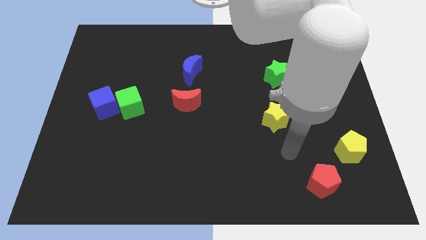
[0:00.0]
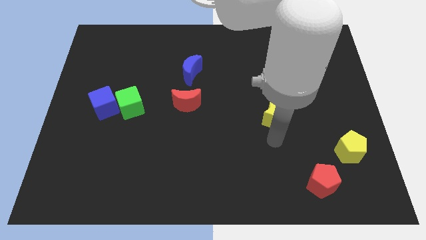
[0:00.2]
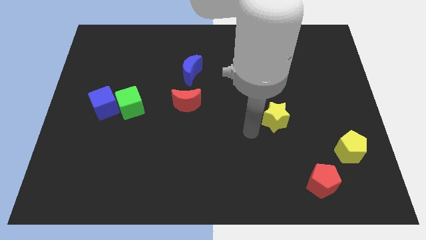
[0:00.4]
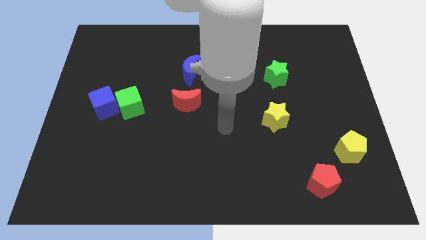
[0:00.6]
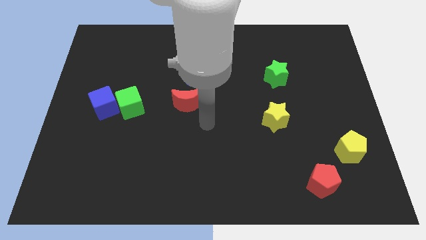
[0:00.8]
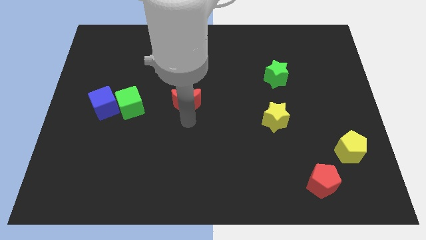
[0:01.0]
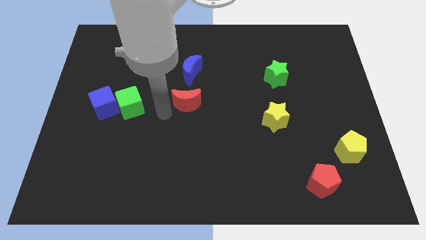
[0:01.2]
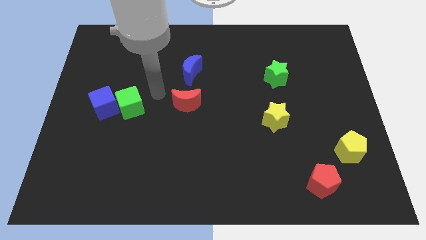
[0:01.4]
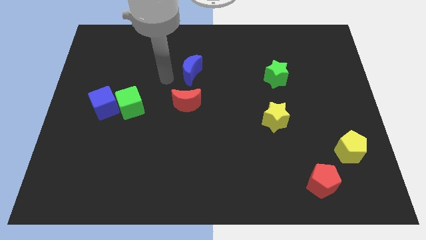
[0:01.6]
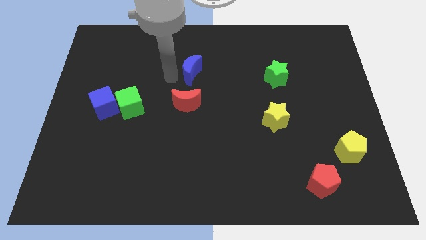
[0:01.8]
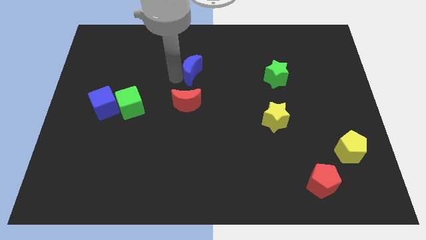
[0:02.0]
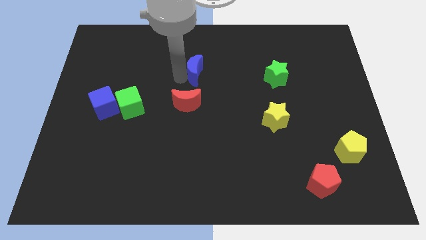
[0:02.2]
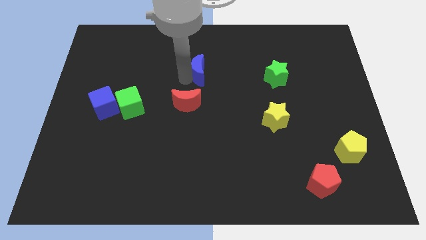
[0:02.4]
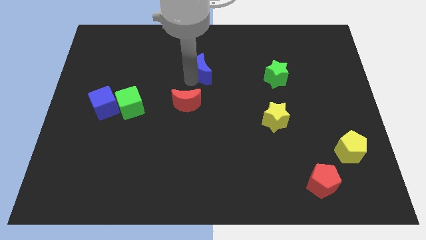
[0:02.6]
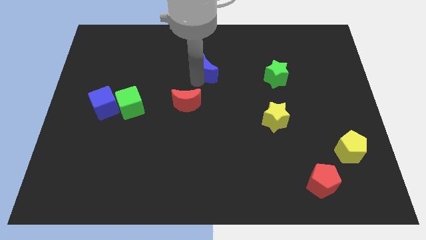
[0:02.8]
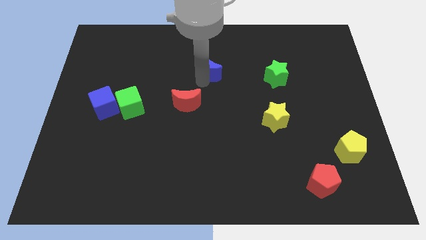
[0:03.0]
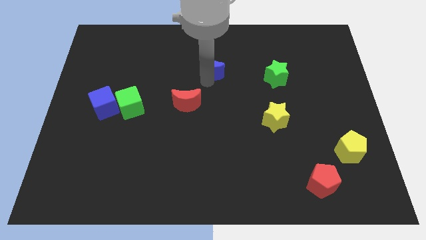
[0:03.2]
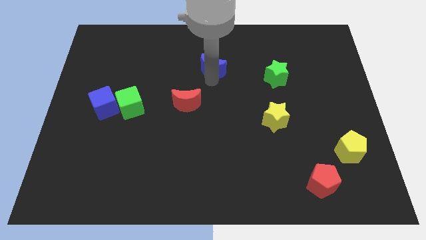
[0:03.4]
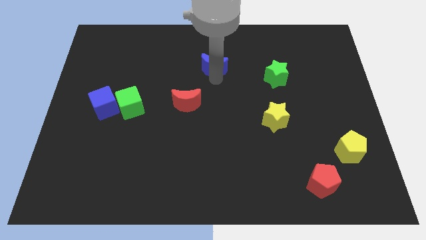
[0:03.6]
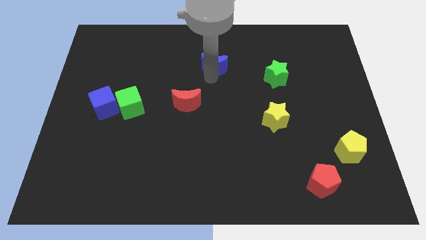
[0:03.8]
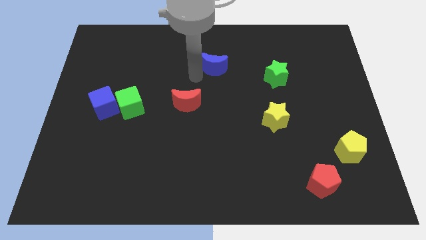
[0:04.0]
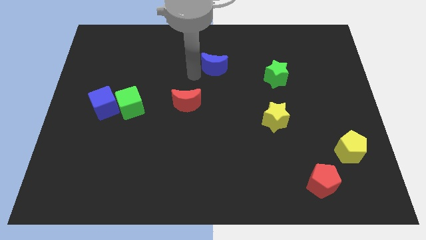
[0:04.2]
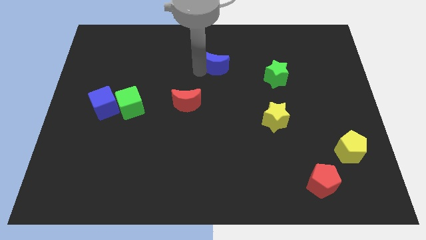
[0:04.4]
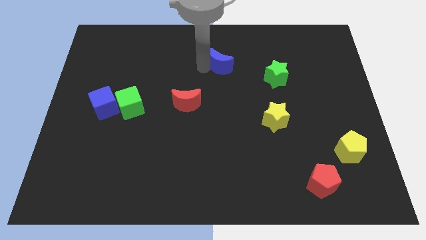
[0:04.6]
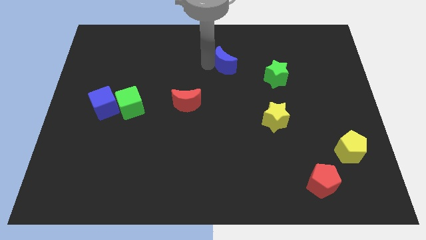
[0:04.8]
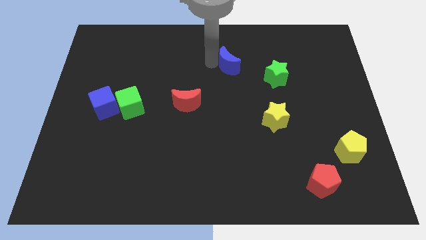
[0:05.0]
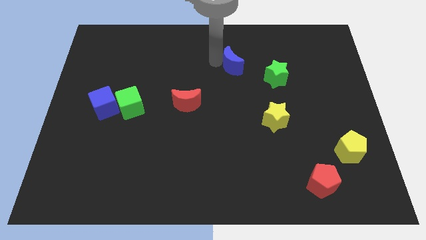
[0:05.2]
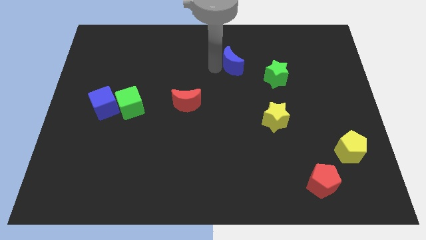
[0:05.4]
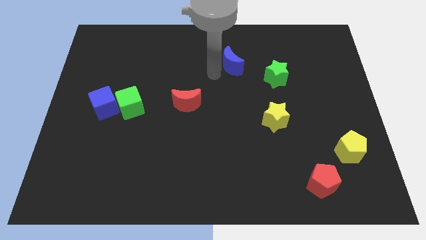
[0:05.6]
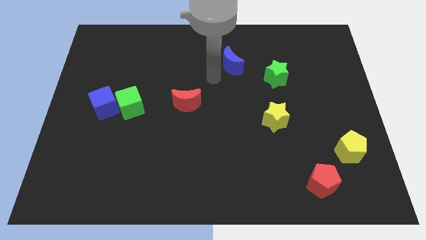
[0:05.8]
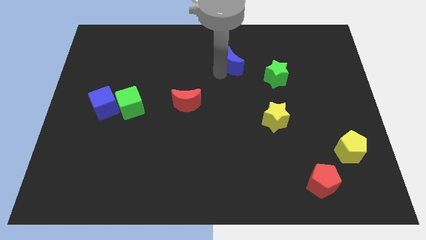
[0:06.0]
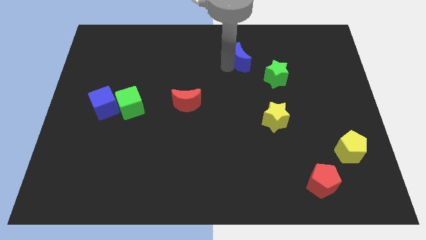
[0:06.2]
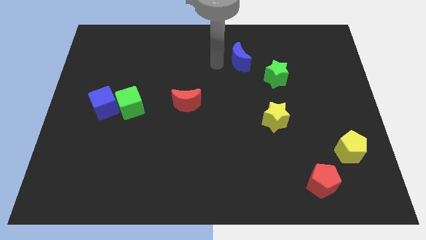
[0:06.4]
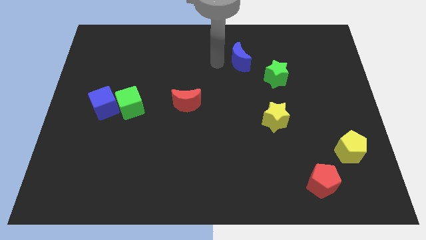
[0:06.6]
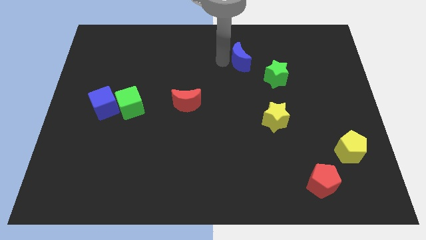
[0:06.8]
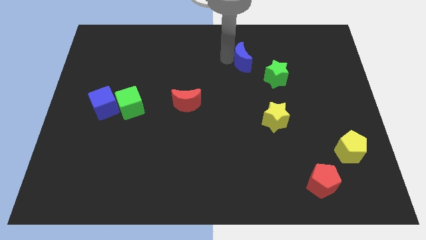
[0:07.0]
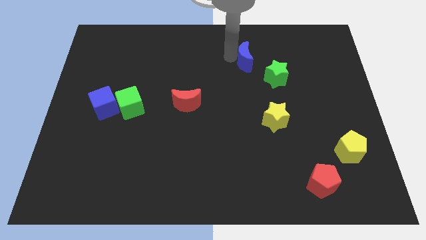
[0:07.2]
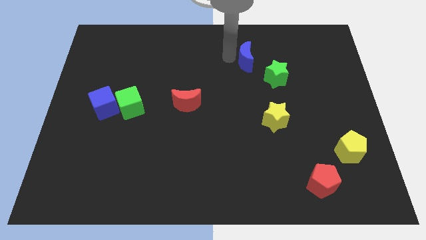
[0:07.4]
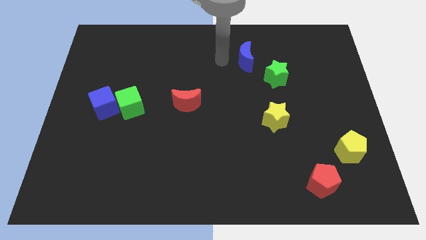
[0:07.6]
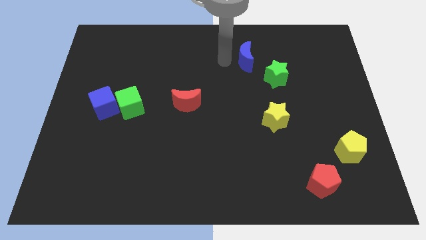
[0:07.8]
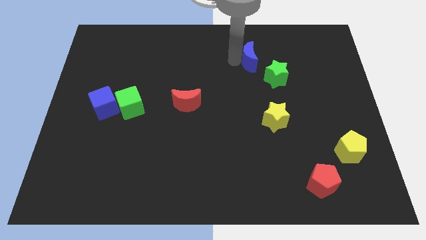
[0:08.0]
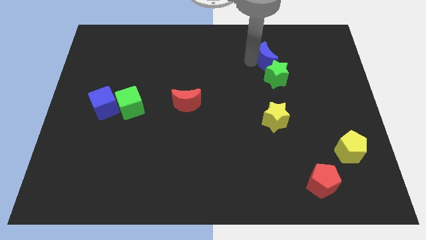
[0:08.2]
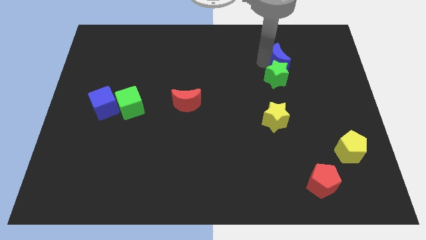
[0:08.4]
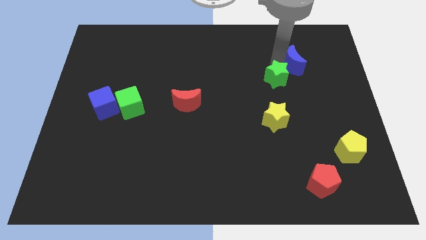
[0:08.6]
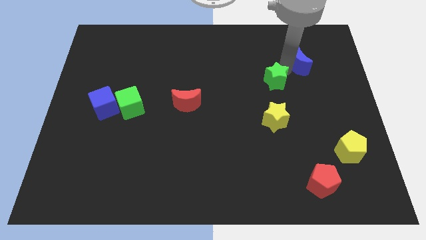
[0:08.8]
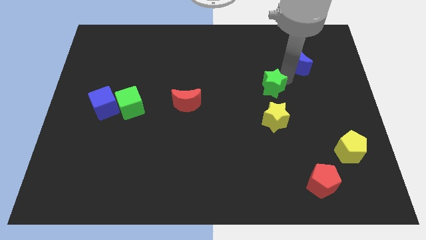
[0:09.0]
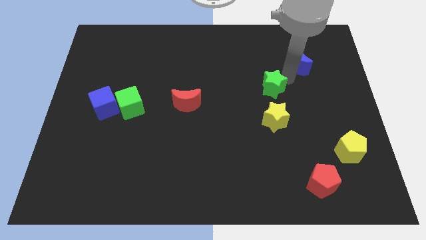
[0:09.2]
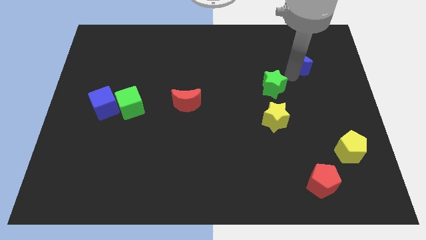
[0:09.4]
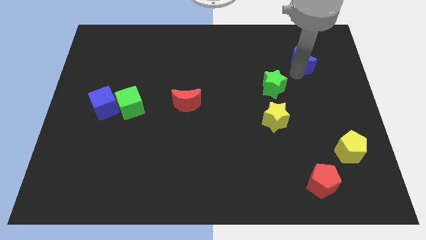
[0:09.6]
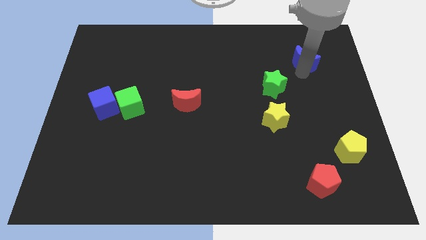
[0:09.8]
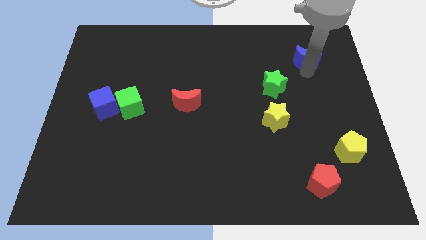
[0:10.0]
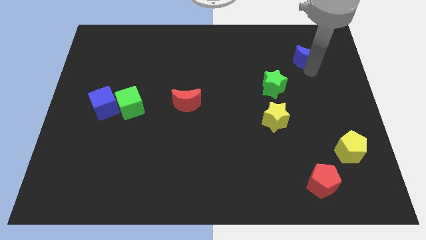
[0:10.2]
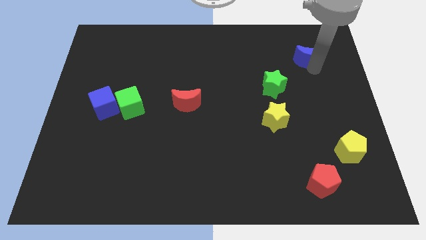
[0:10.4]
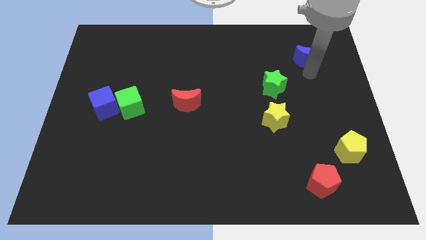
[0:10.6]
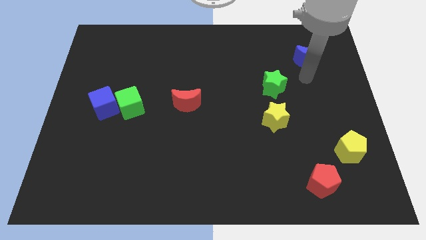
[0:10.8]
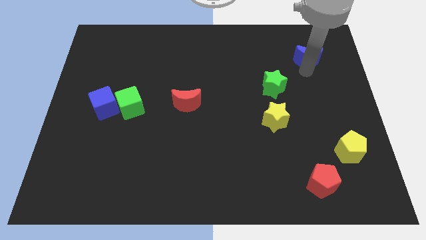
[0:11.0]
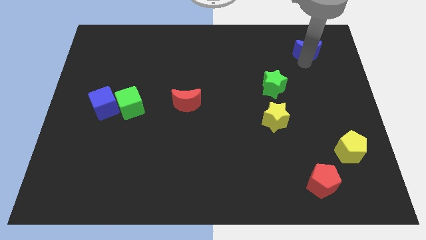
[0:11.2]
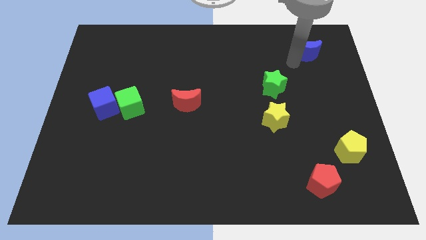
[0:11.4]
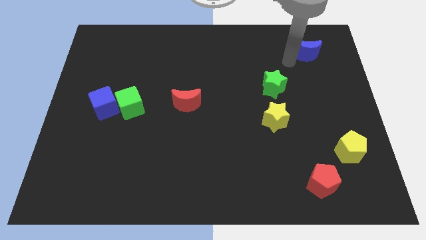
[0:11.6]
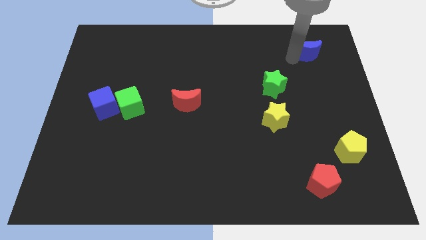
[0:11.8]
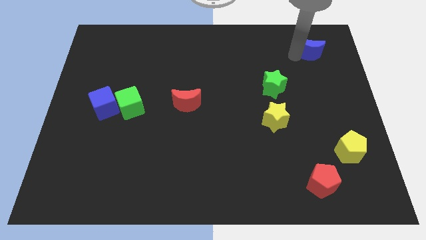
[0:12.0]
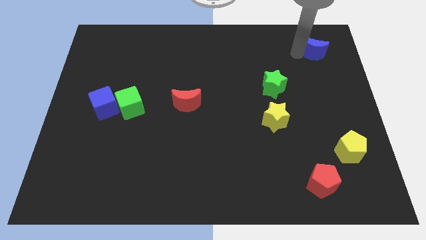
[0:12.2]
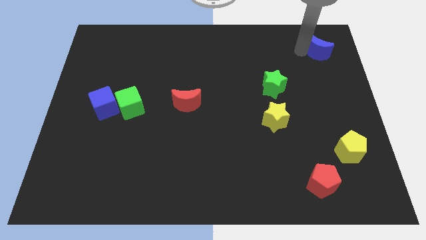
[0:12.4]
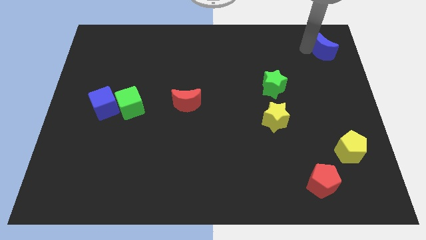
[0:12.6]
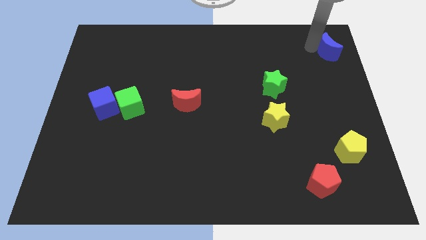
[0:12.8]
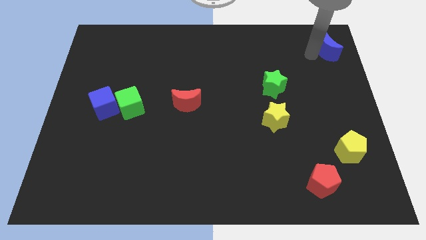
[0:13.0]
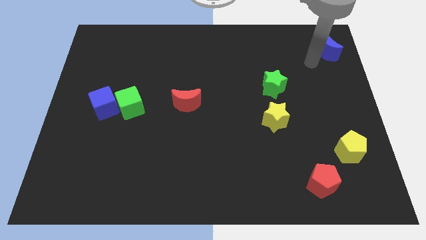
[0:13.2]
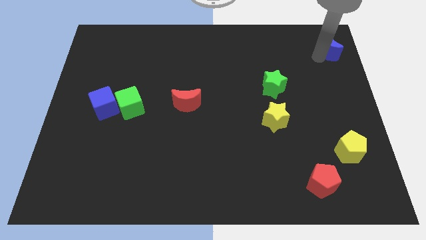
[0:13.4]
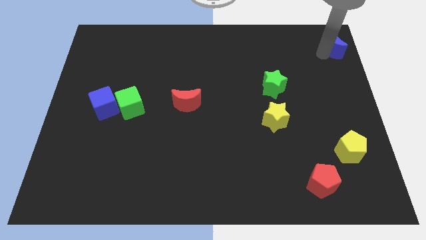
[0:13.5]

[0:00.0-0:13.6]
slide the blue moon to the top right of the board

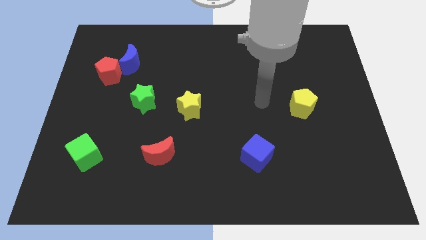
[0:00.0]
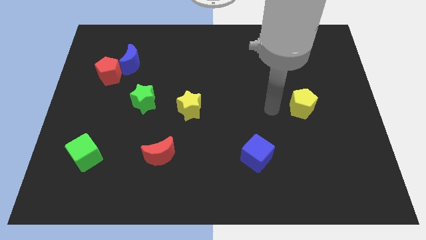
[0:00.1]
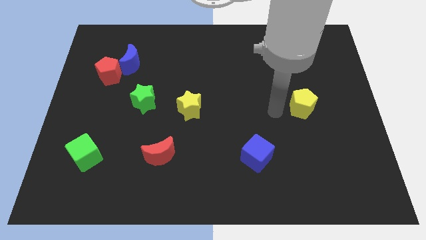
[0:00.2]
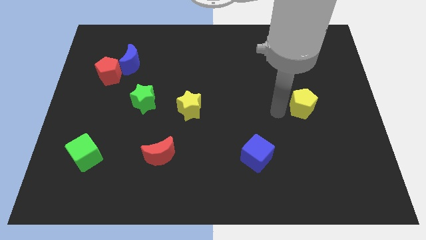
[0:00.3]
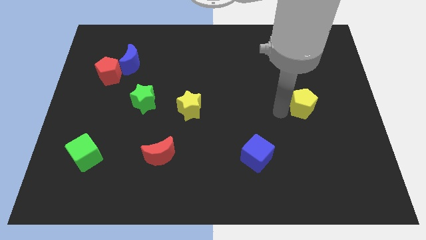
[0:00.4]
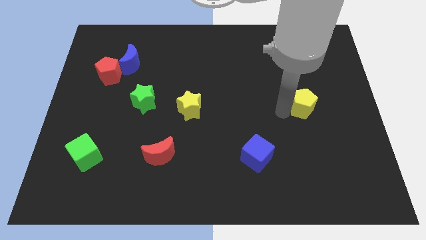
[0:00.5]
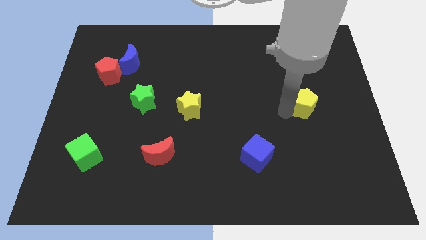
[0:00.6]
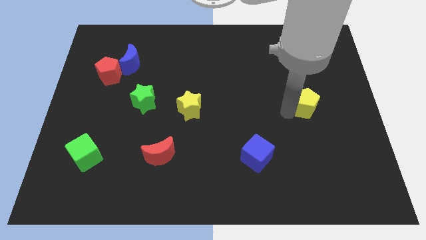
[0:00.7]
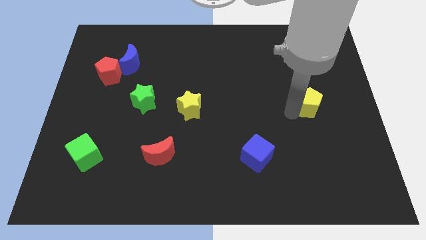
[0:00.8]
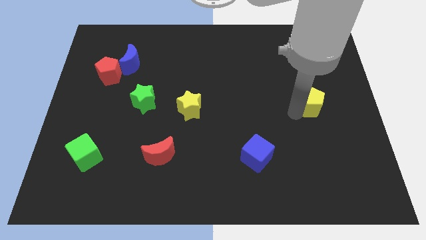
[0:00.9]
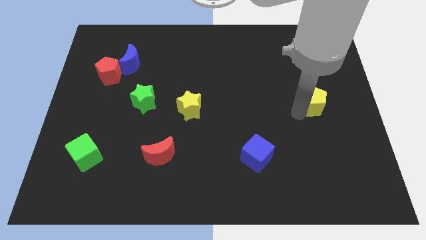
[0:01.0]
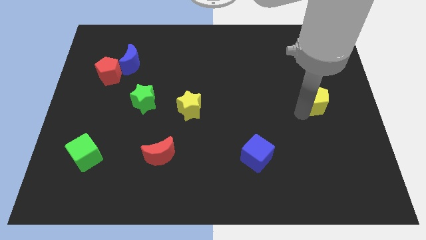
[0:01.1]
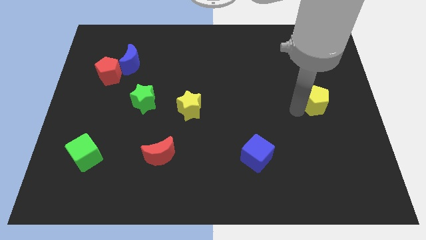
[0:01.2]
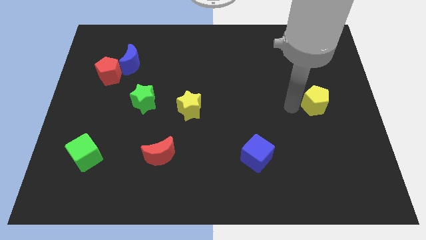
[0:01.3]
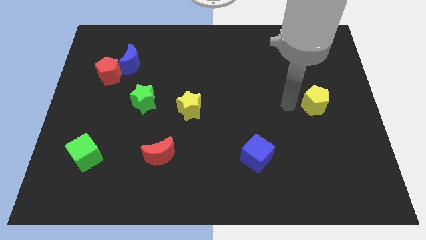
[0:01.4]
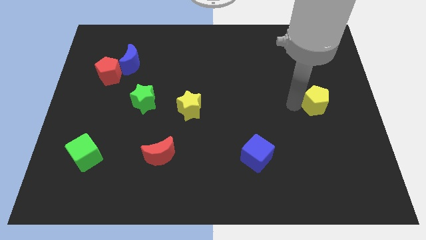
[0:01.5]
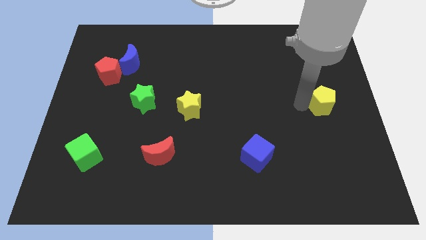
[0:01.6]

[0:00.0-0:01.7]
slide the yellow pentagon to the center right
